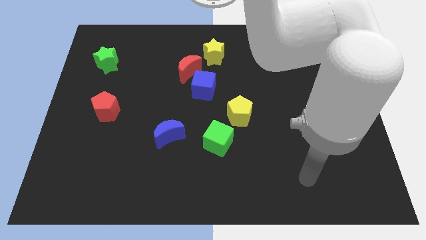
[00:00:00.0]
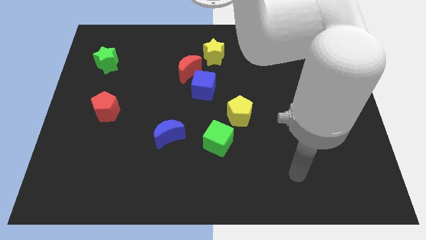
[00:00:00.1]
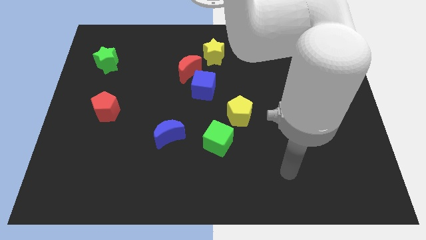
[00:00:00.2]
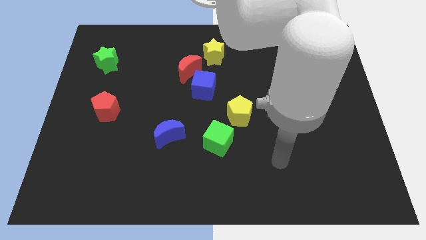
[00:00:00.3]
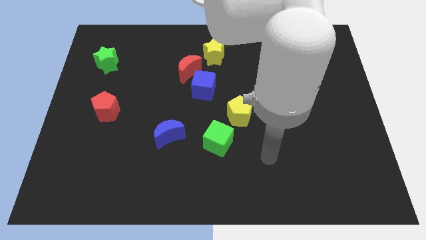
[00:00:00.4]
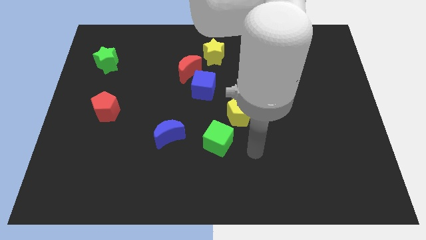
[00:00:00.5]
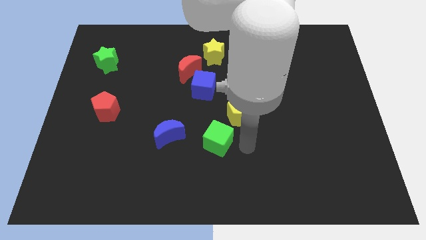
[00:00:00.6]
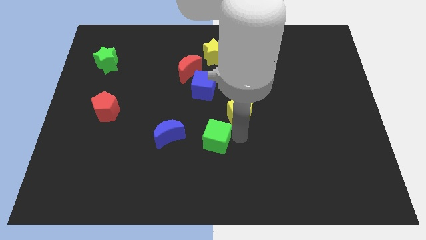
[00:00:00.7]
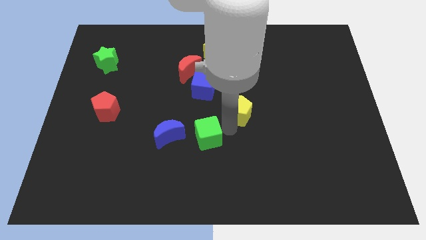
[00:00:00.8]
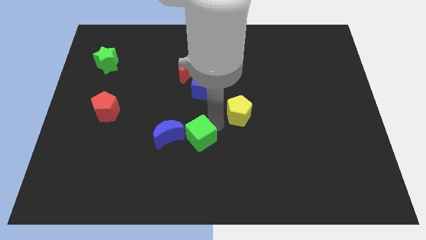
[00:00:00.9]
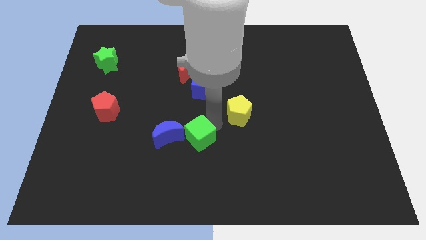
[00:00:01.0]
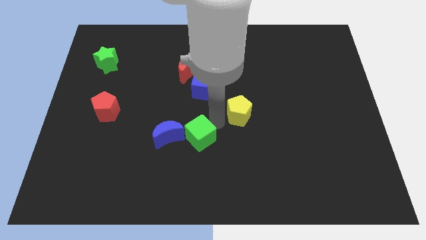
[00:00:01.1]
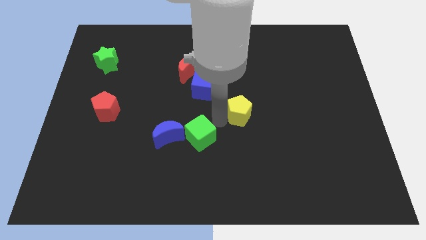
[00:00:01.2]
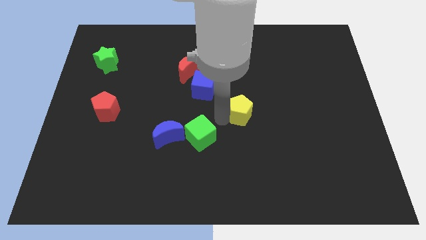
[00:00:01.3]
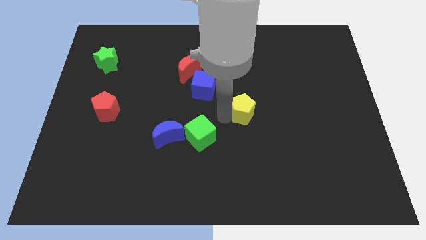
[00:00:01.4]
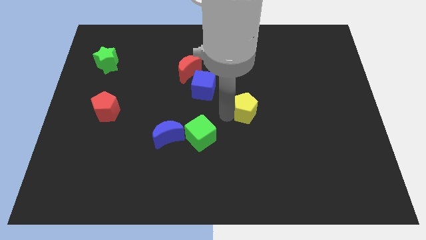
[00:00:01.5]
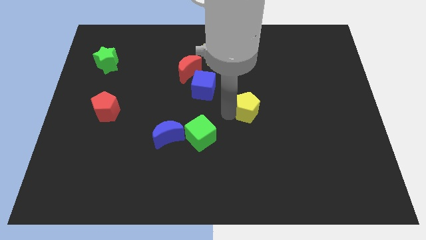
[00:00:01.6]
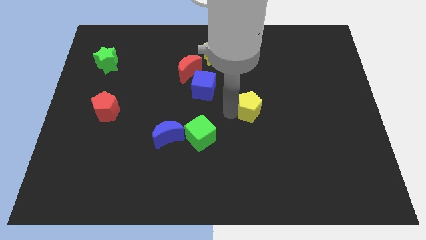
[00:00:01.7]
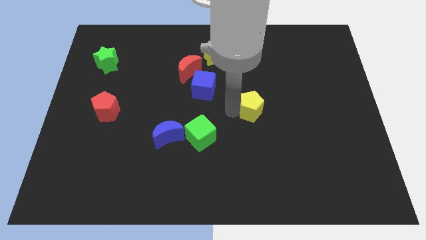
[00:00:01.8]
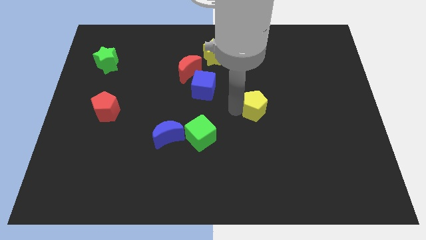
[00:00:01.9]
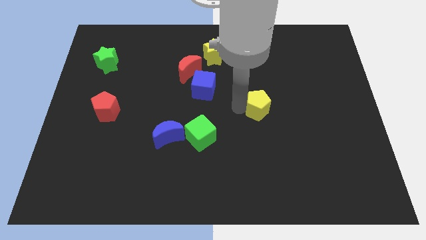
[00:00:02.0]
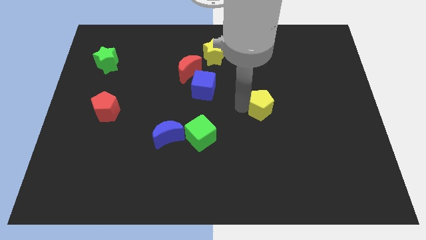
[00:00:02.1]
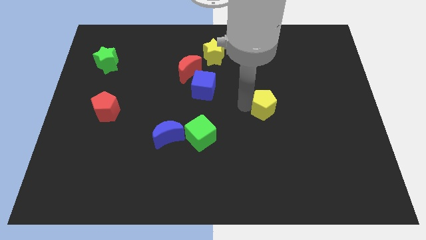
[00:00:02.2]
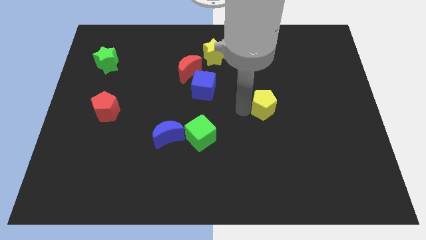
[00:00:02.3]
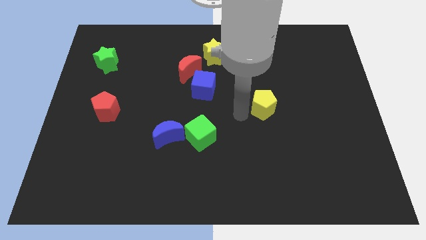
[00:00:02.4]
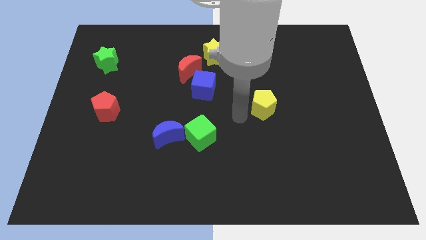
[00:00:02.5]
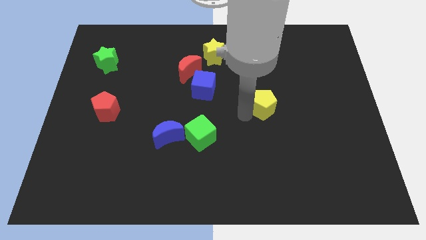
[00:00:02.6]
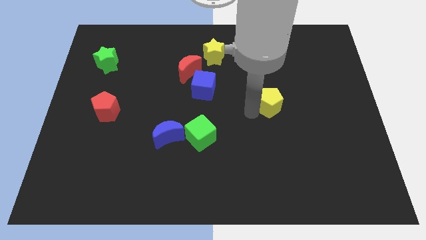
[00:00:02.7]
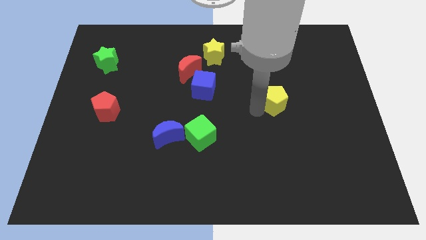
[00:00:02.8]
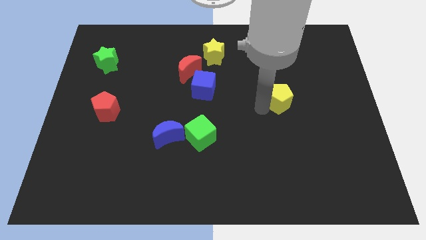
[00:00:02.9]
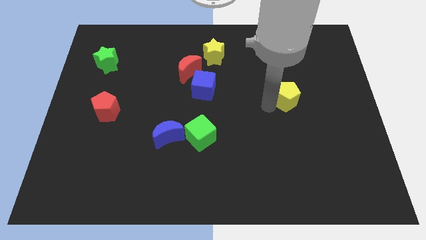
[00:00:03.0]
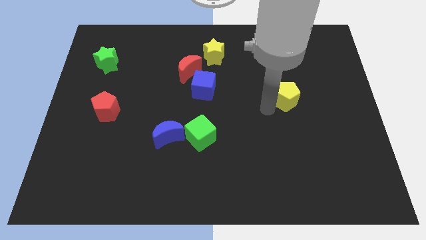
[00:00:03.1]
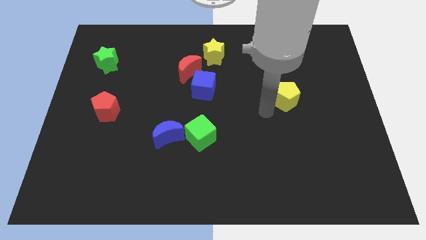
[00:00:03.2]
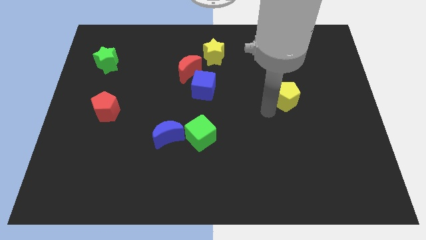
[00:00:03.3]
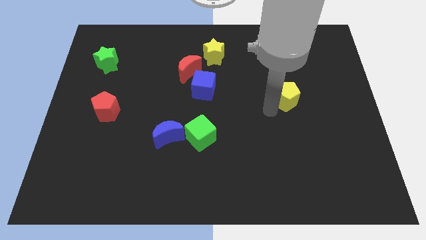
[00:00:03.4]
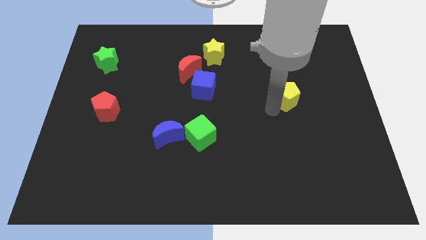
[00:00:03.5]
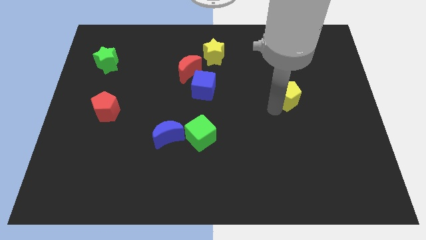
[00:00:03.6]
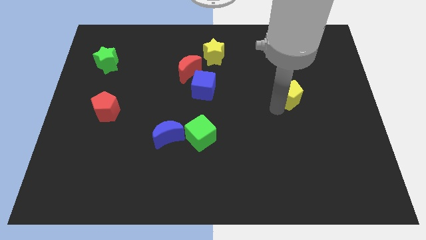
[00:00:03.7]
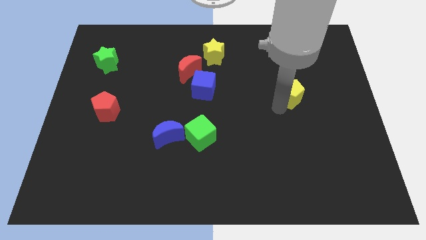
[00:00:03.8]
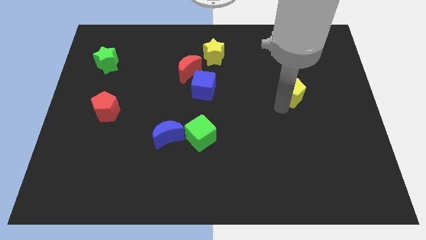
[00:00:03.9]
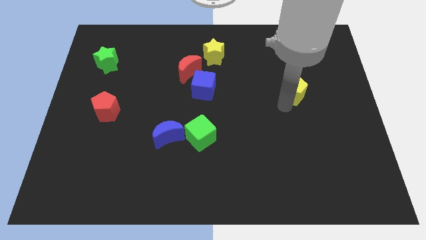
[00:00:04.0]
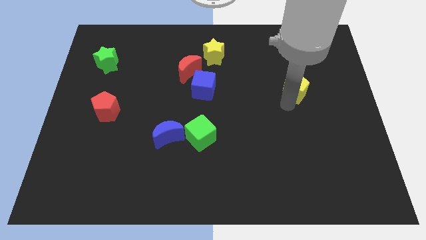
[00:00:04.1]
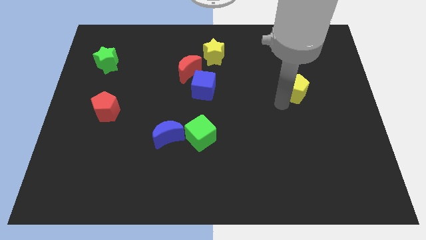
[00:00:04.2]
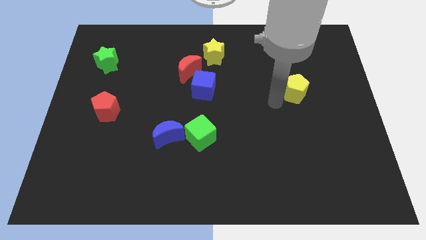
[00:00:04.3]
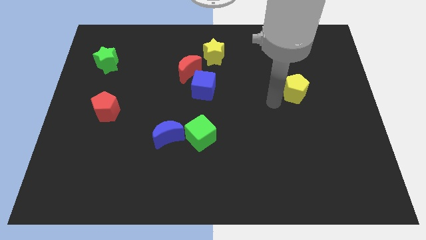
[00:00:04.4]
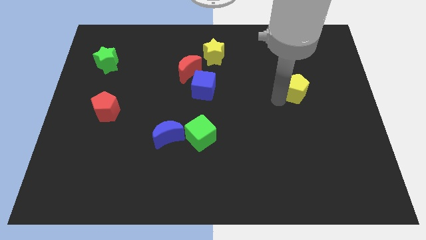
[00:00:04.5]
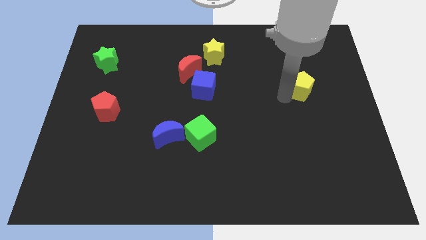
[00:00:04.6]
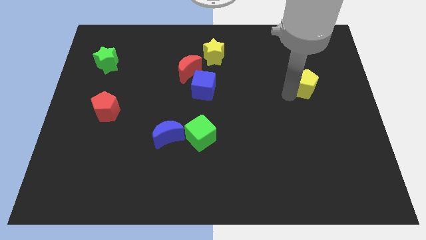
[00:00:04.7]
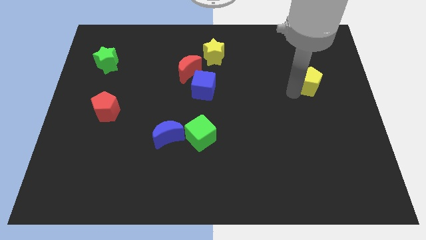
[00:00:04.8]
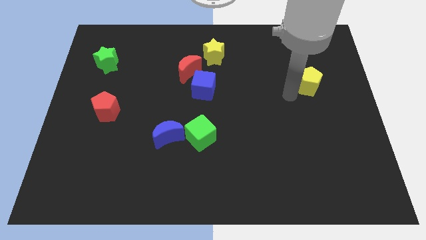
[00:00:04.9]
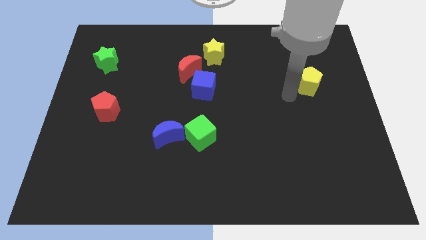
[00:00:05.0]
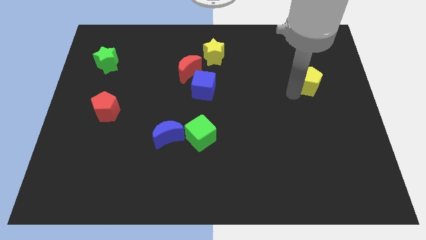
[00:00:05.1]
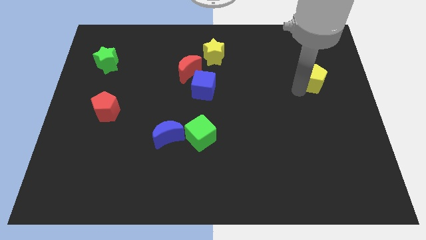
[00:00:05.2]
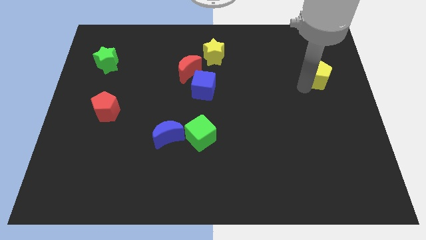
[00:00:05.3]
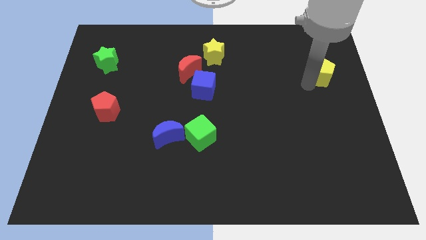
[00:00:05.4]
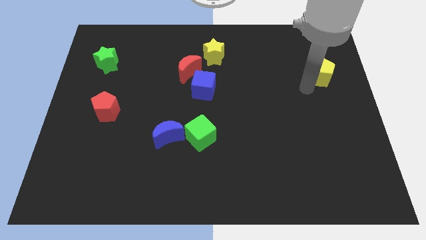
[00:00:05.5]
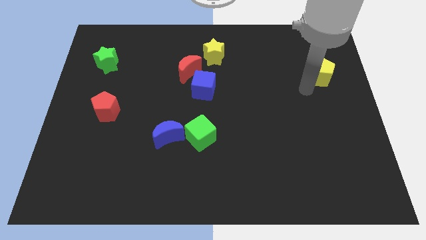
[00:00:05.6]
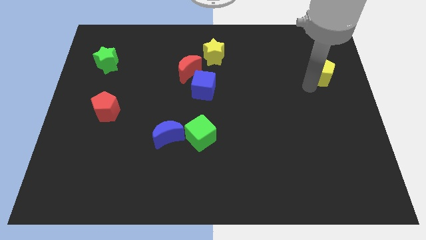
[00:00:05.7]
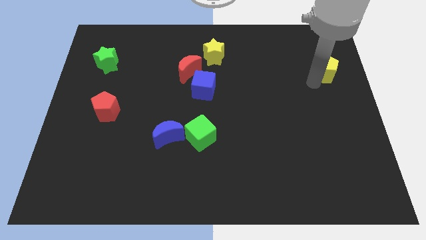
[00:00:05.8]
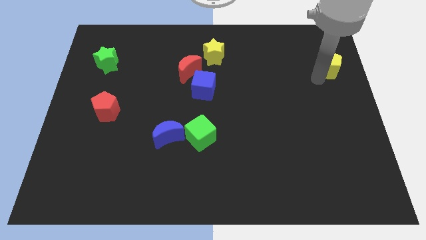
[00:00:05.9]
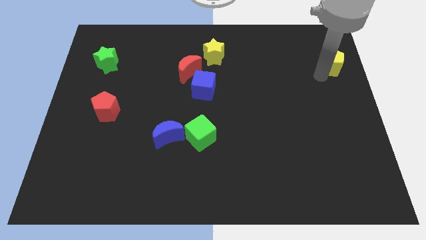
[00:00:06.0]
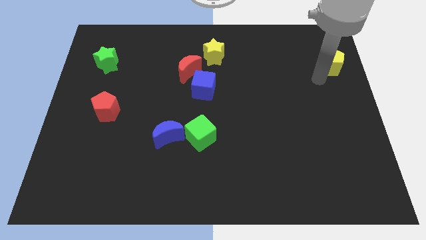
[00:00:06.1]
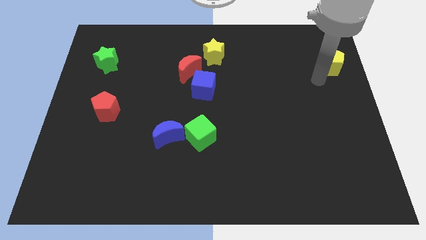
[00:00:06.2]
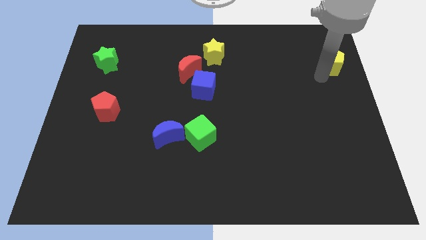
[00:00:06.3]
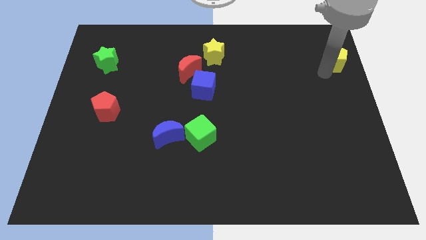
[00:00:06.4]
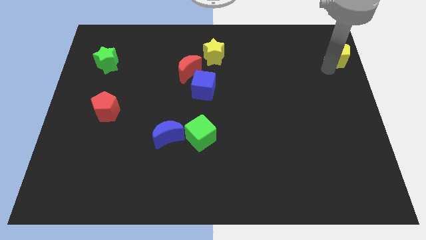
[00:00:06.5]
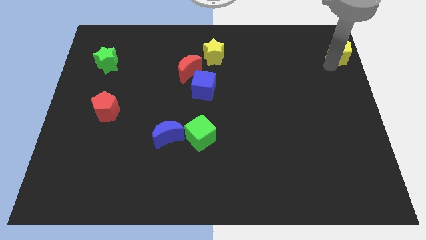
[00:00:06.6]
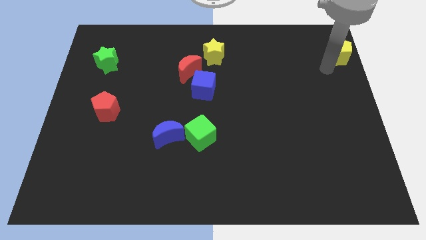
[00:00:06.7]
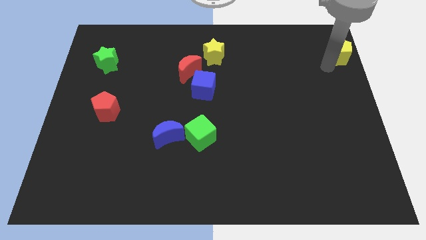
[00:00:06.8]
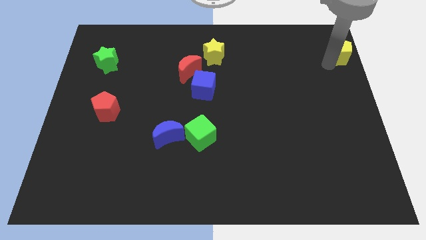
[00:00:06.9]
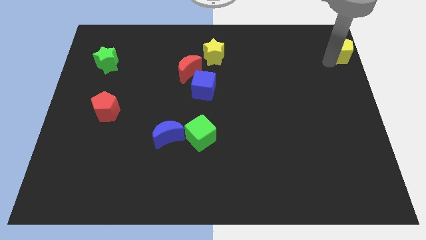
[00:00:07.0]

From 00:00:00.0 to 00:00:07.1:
slide the yellow pentagon to the upper right corner
